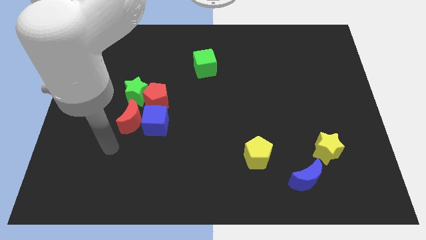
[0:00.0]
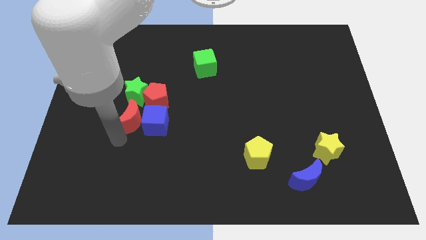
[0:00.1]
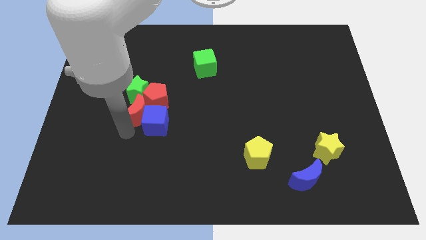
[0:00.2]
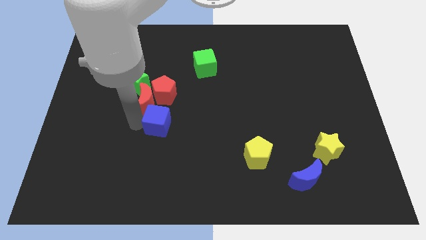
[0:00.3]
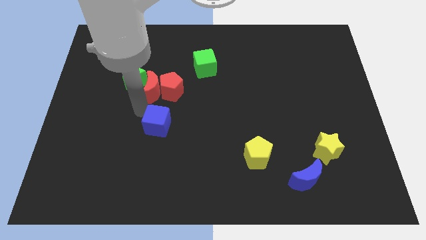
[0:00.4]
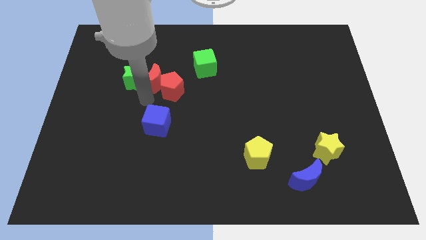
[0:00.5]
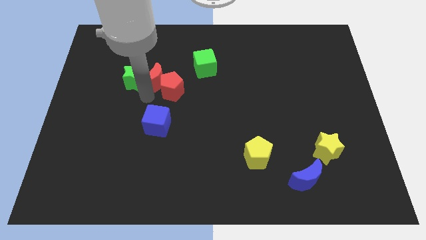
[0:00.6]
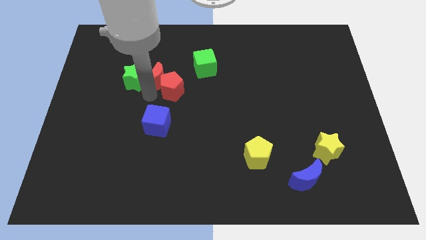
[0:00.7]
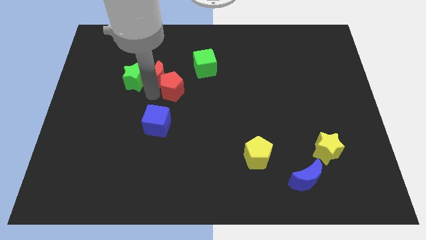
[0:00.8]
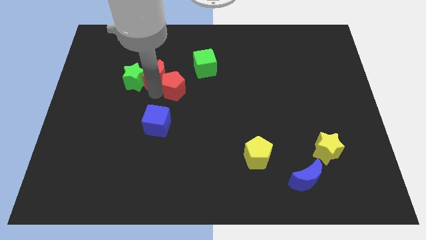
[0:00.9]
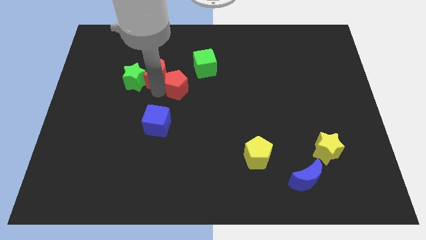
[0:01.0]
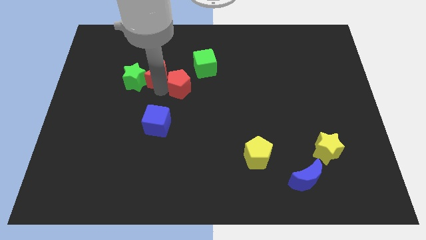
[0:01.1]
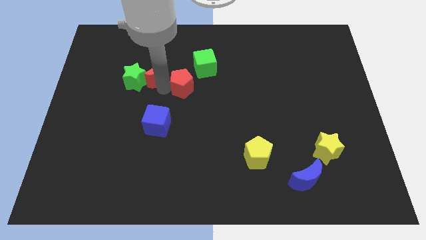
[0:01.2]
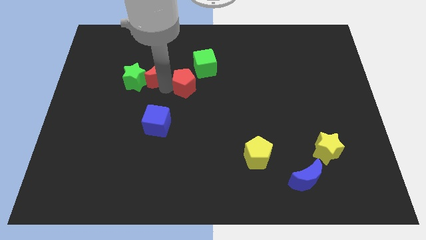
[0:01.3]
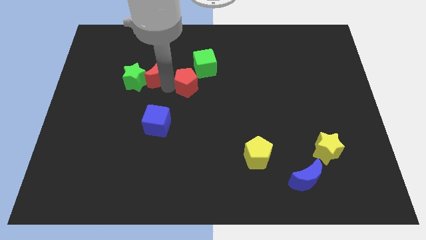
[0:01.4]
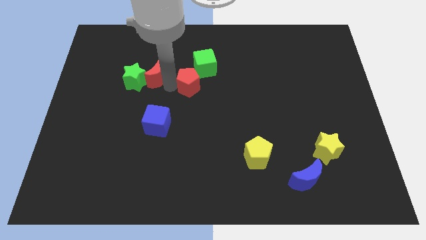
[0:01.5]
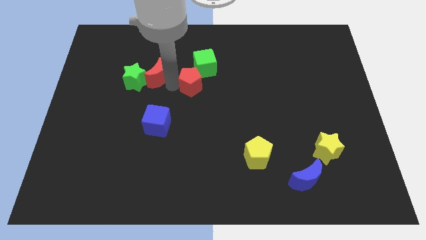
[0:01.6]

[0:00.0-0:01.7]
pull the red pentagon apart from the group

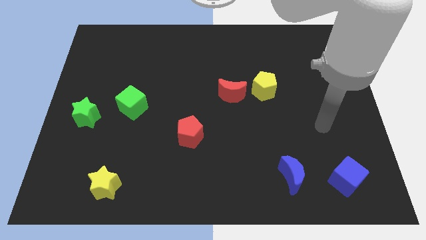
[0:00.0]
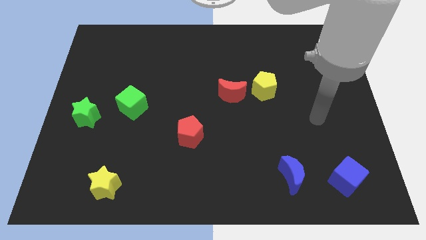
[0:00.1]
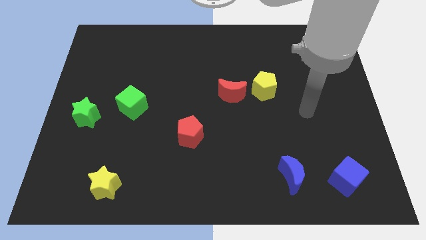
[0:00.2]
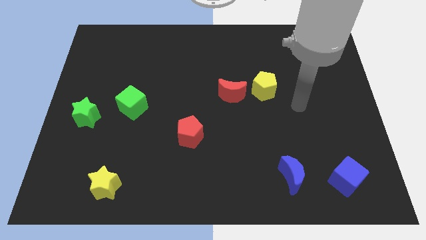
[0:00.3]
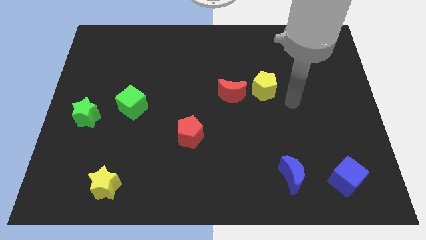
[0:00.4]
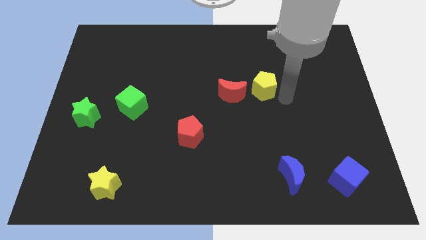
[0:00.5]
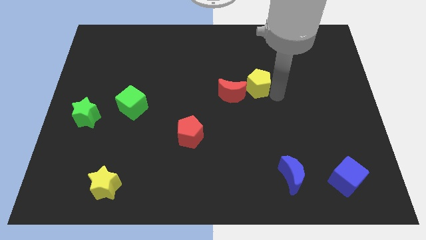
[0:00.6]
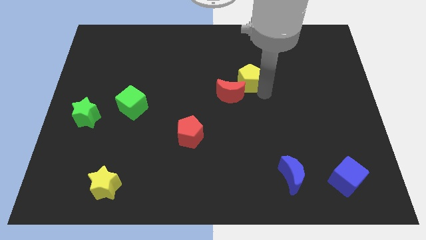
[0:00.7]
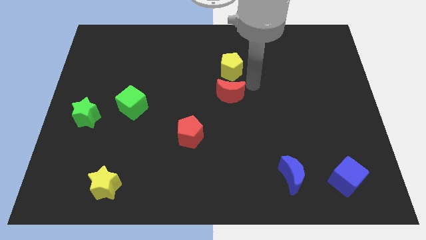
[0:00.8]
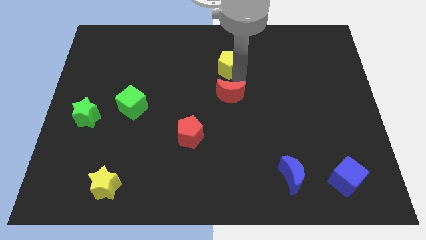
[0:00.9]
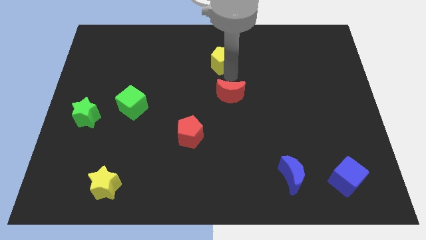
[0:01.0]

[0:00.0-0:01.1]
move the red moon away from the yellow pentagon

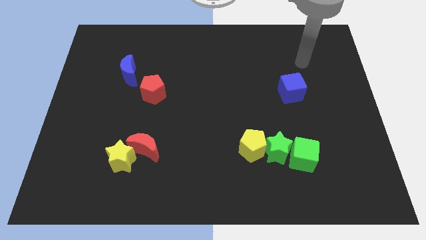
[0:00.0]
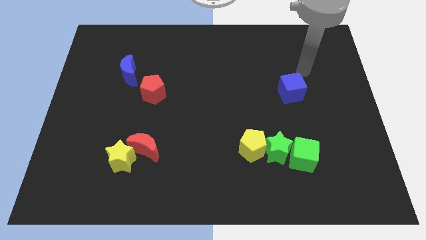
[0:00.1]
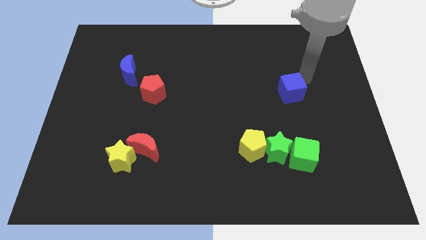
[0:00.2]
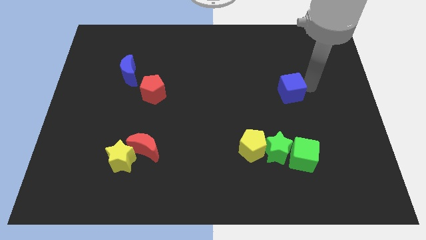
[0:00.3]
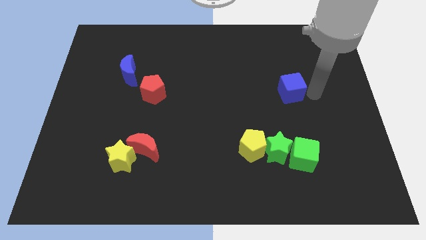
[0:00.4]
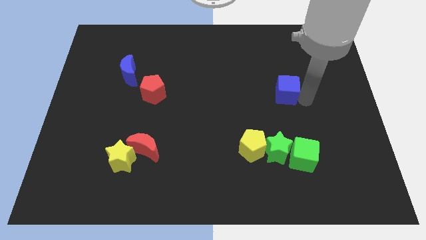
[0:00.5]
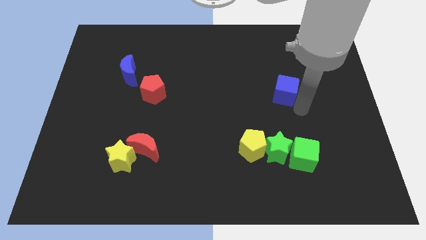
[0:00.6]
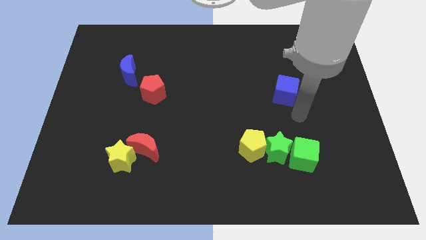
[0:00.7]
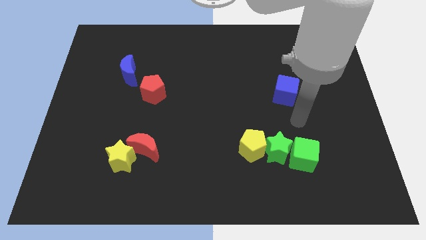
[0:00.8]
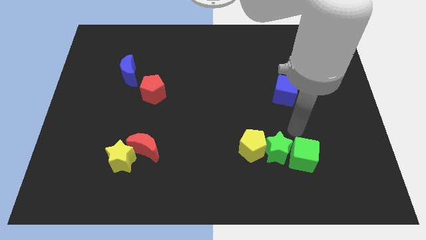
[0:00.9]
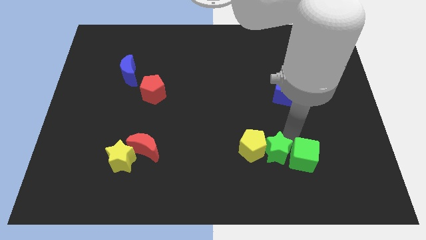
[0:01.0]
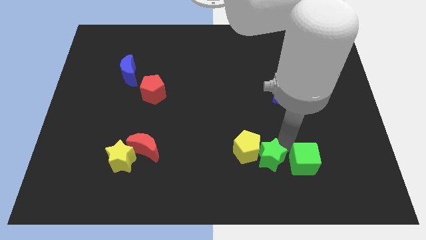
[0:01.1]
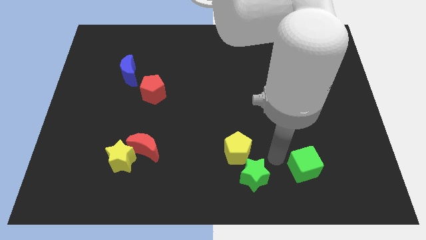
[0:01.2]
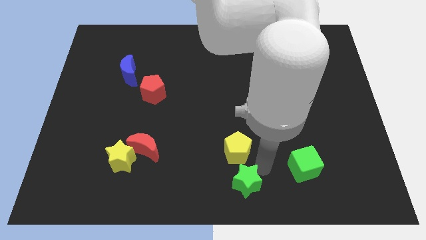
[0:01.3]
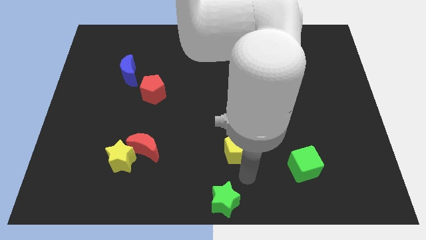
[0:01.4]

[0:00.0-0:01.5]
separate the yellow pentagon from the green star

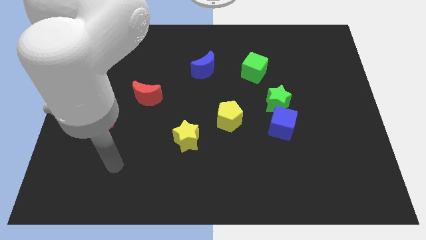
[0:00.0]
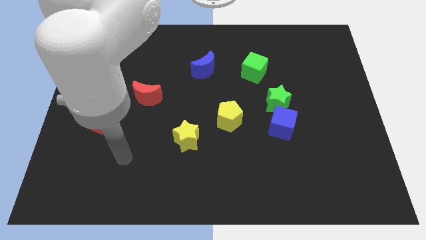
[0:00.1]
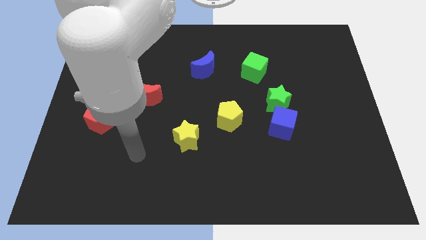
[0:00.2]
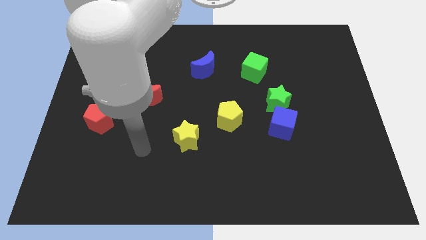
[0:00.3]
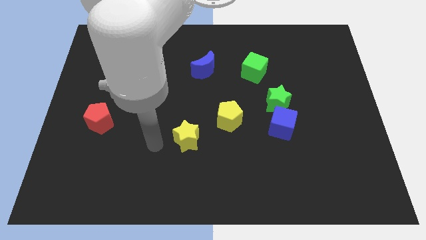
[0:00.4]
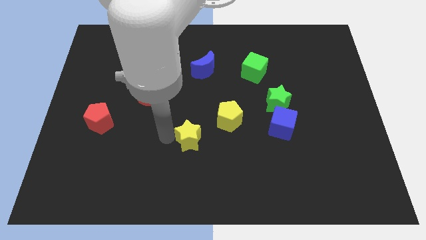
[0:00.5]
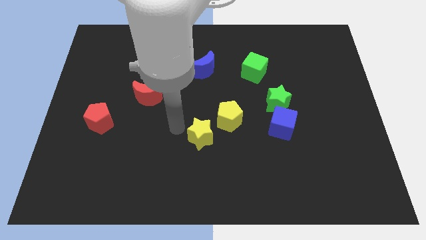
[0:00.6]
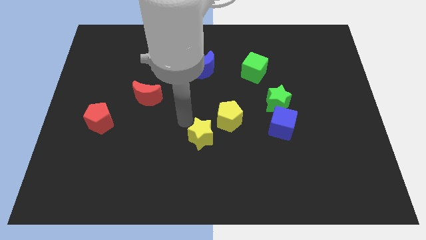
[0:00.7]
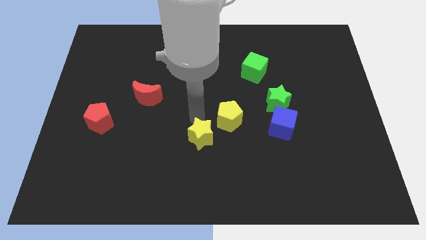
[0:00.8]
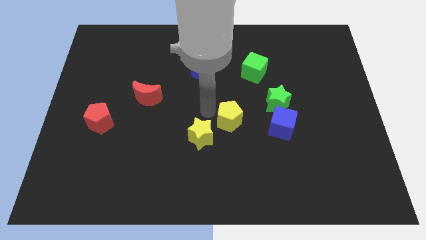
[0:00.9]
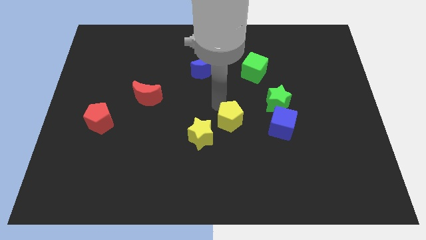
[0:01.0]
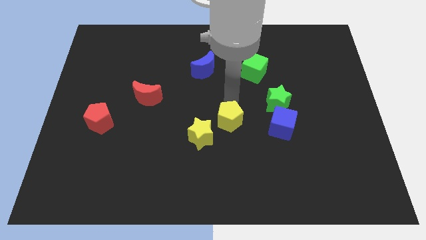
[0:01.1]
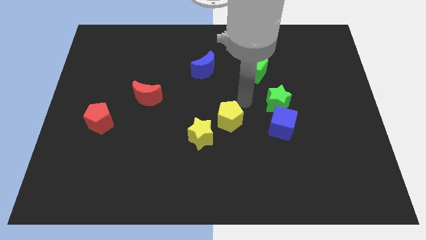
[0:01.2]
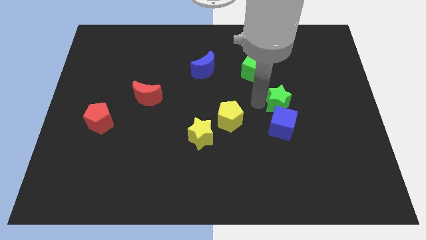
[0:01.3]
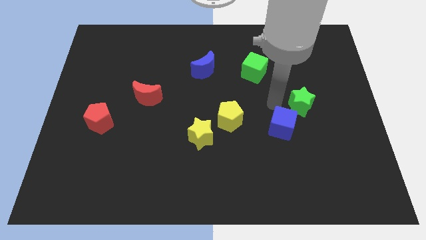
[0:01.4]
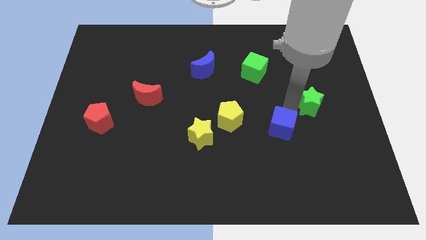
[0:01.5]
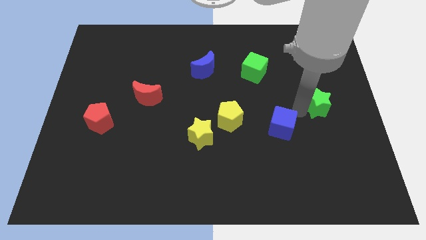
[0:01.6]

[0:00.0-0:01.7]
pull the blue cube apart from the green star

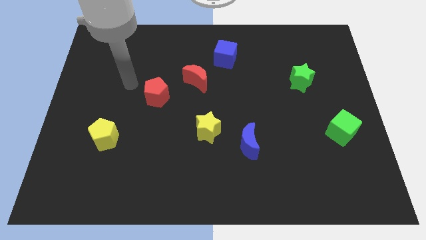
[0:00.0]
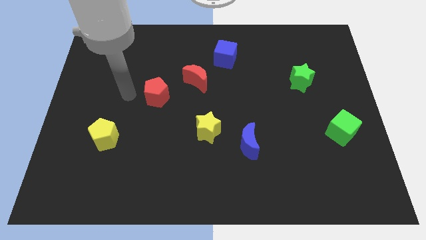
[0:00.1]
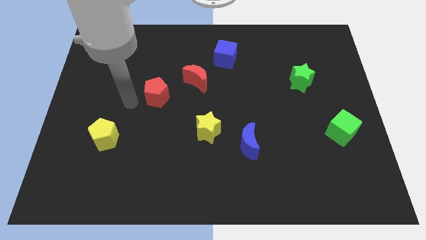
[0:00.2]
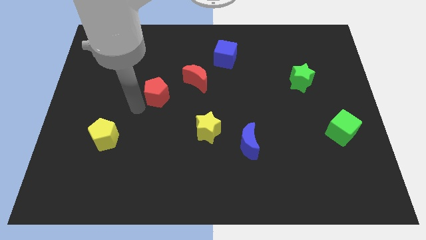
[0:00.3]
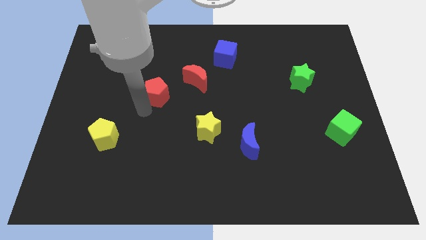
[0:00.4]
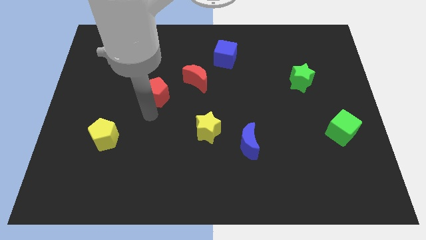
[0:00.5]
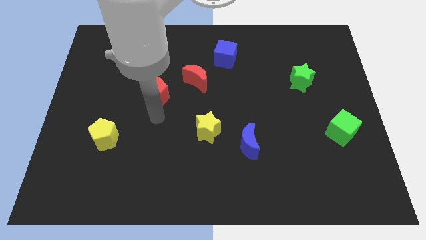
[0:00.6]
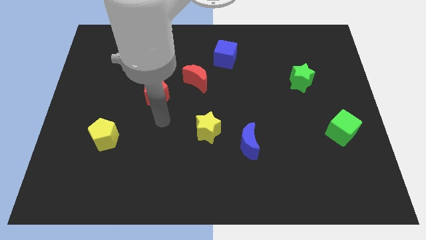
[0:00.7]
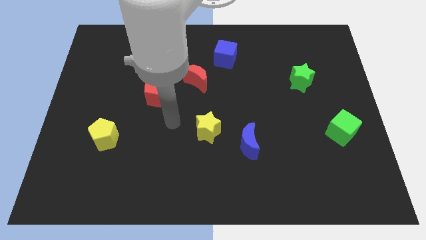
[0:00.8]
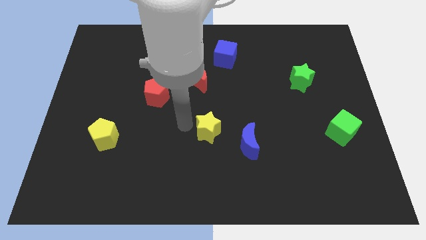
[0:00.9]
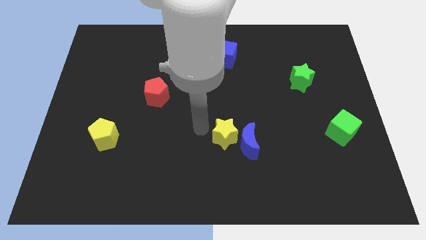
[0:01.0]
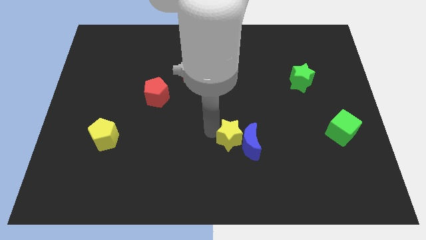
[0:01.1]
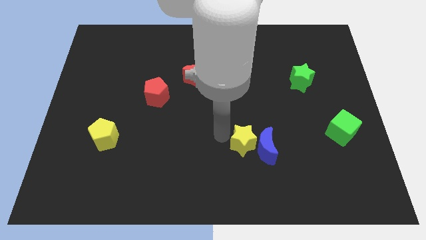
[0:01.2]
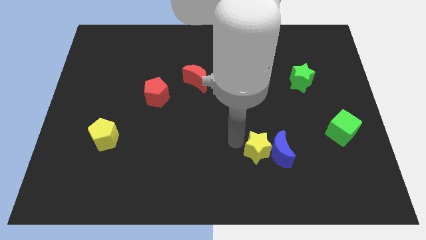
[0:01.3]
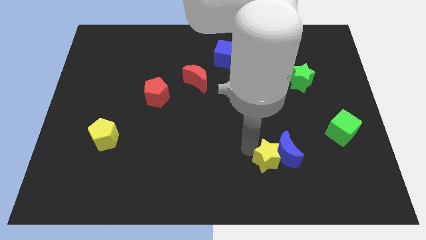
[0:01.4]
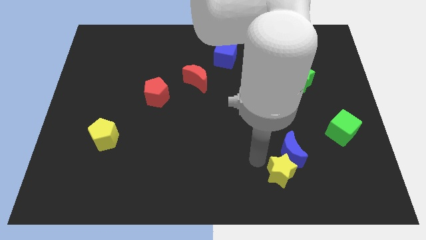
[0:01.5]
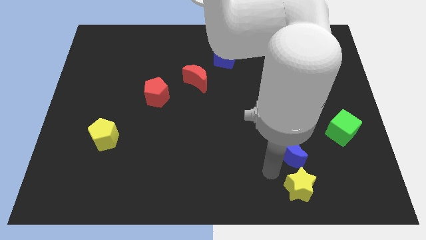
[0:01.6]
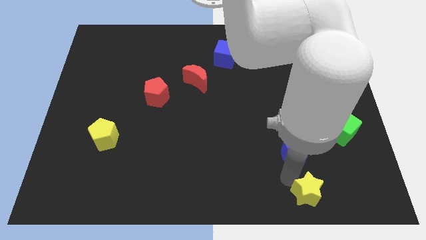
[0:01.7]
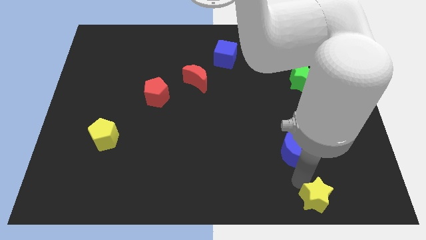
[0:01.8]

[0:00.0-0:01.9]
move the blue moon away from the yellow star

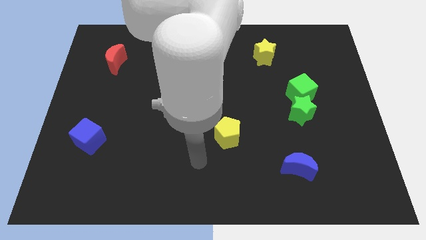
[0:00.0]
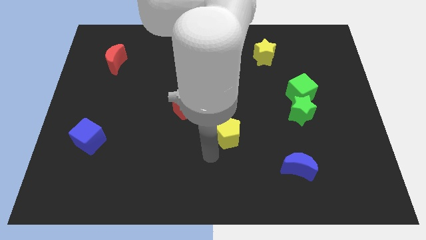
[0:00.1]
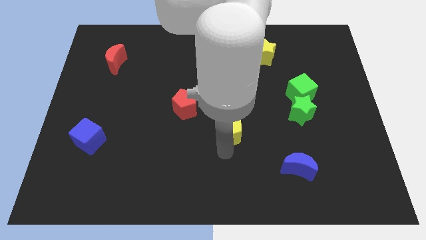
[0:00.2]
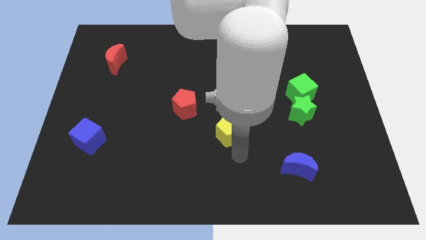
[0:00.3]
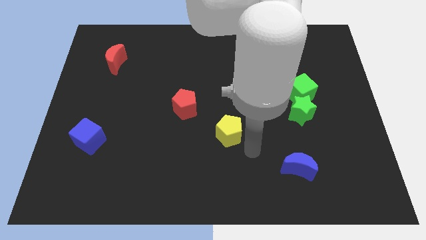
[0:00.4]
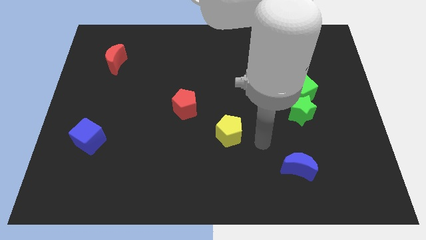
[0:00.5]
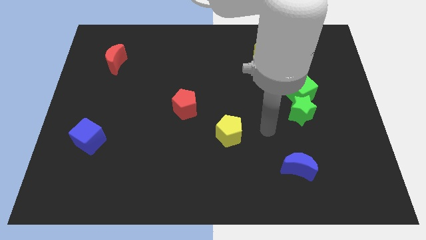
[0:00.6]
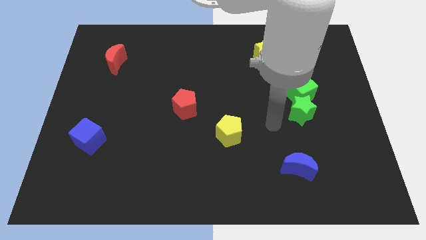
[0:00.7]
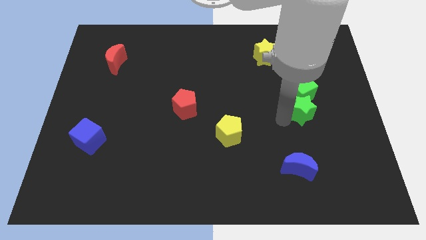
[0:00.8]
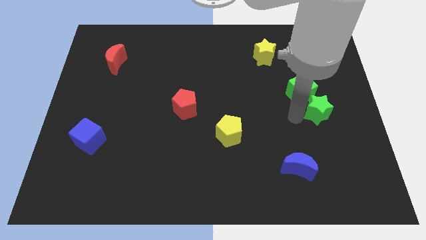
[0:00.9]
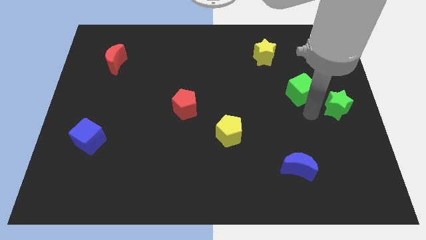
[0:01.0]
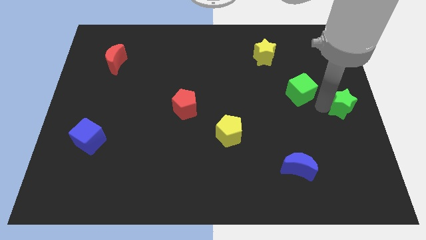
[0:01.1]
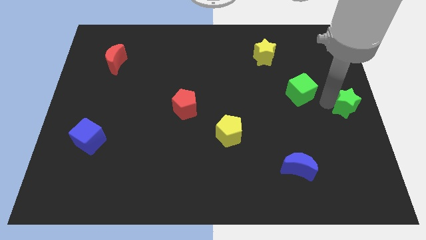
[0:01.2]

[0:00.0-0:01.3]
move the green cube away from the green star
